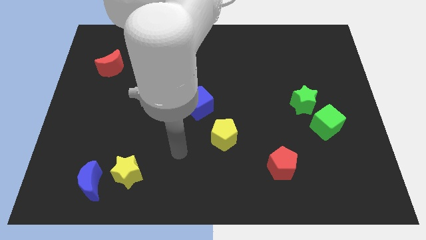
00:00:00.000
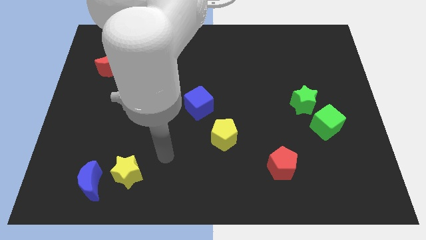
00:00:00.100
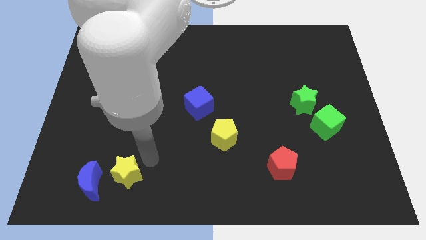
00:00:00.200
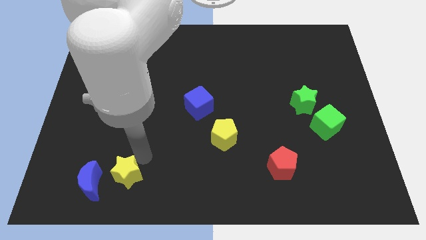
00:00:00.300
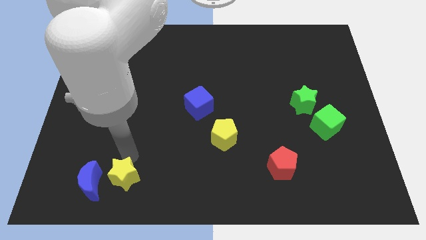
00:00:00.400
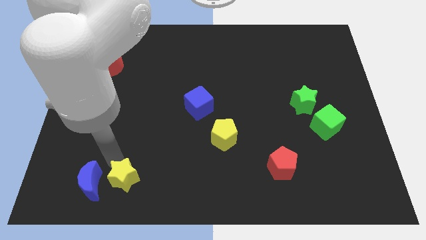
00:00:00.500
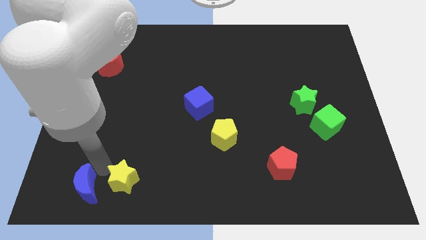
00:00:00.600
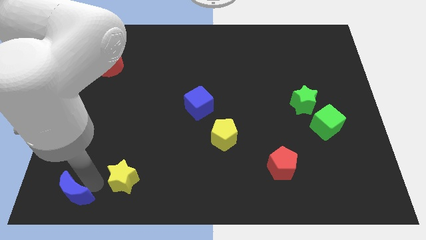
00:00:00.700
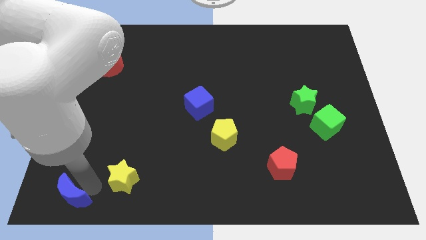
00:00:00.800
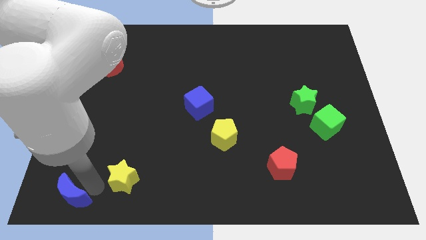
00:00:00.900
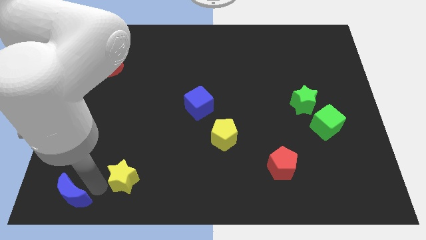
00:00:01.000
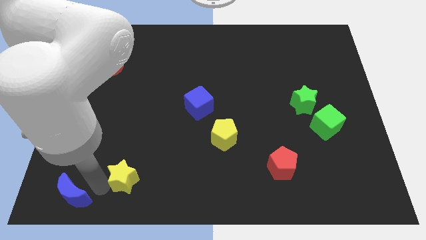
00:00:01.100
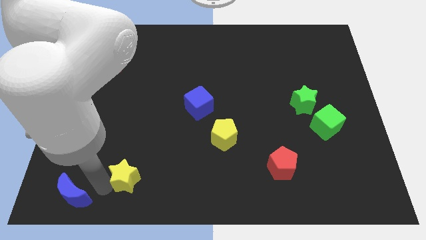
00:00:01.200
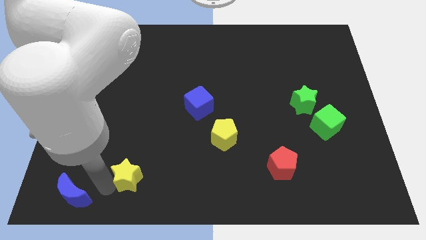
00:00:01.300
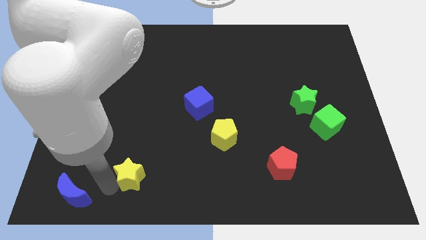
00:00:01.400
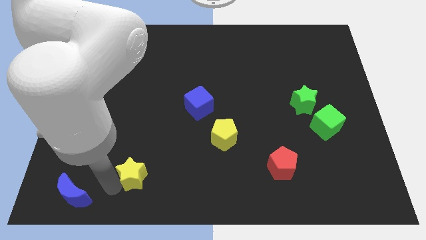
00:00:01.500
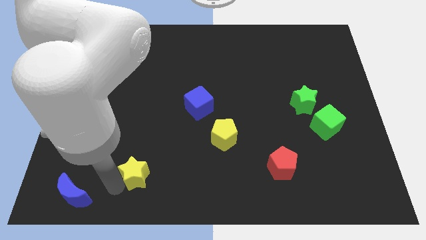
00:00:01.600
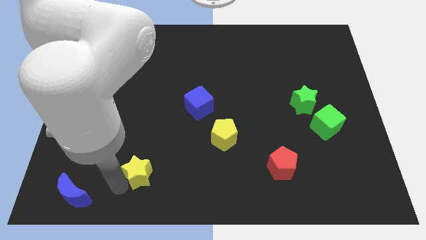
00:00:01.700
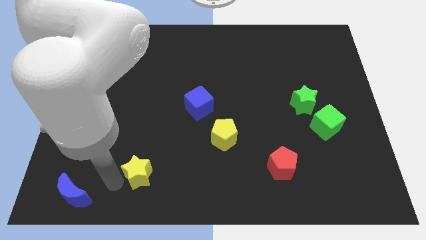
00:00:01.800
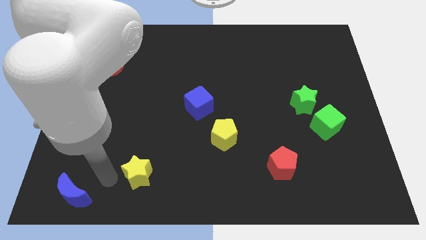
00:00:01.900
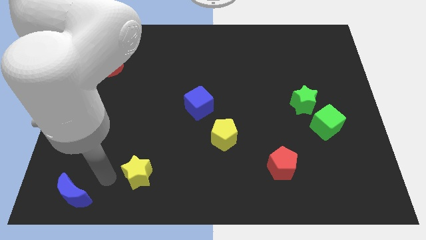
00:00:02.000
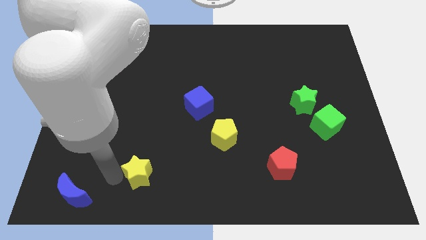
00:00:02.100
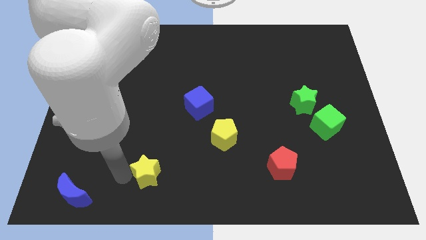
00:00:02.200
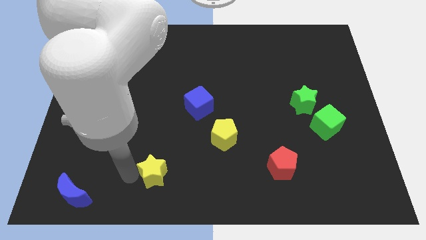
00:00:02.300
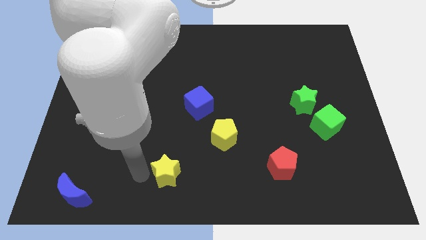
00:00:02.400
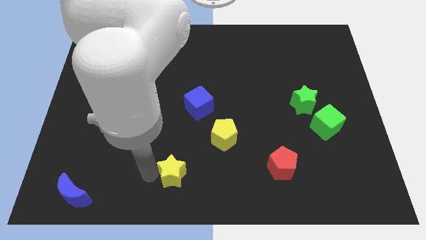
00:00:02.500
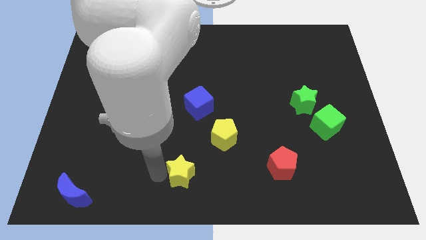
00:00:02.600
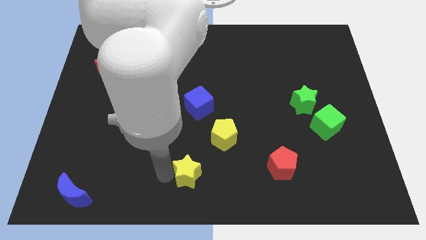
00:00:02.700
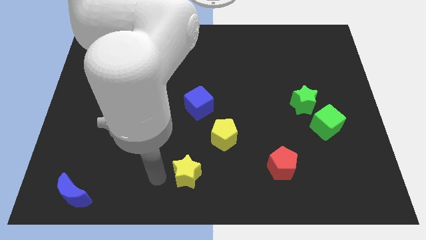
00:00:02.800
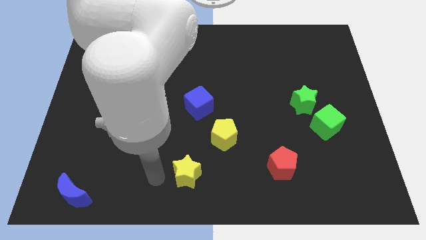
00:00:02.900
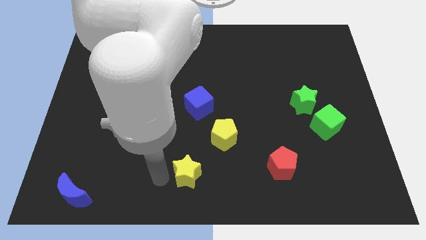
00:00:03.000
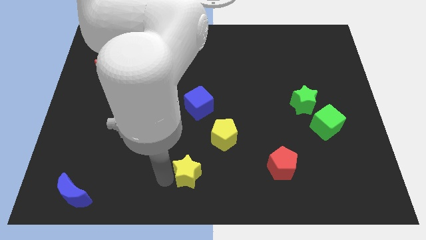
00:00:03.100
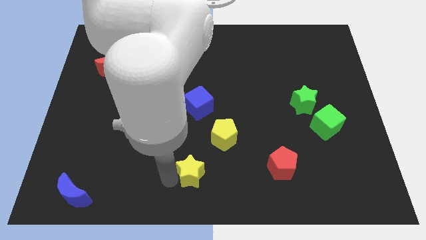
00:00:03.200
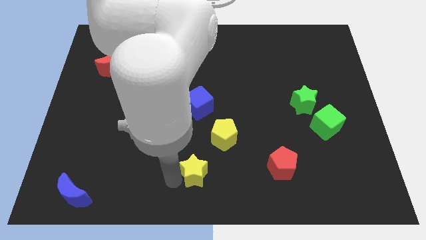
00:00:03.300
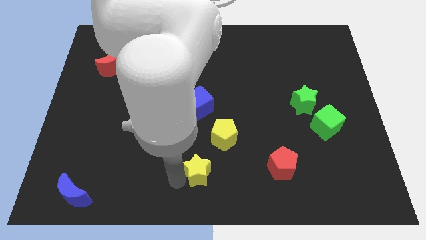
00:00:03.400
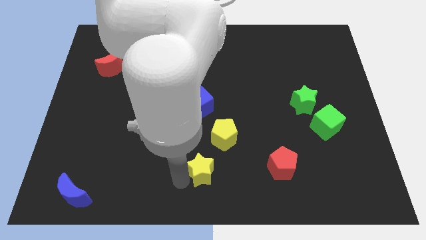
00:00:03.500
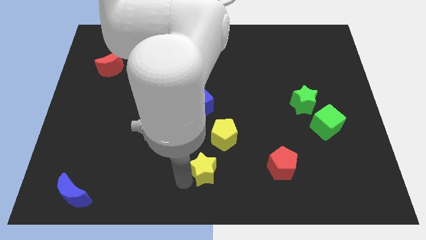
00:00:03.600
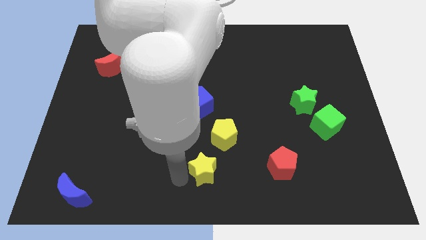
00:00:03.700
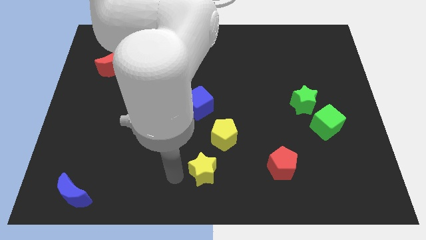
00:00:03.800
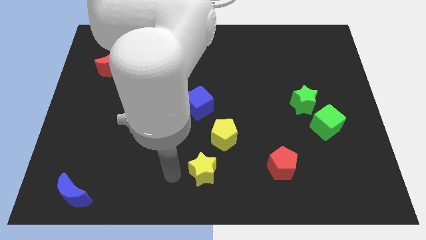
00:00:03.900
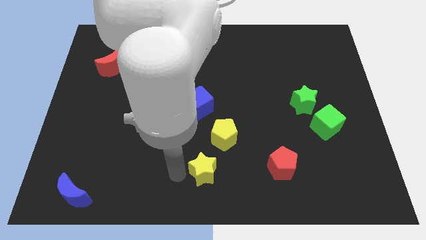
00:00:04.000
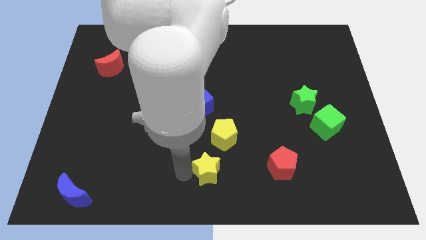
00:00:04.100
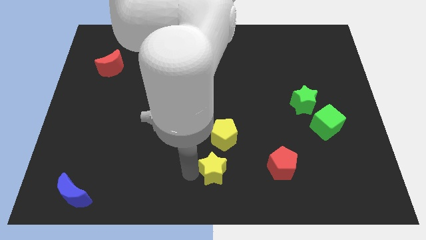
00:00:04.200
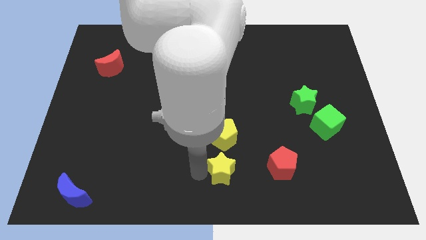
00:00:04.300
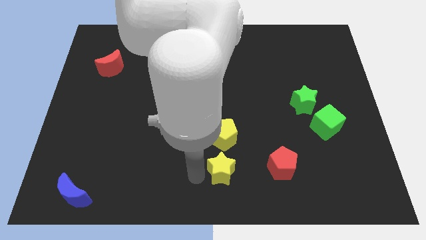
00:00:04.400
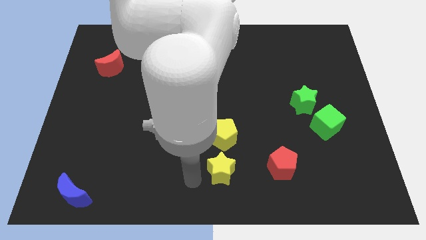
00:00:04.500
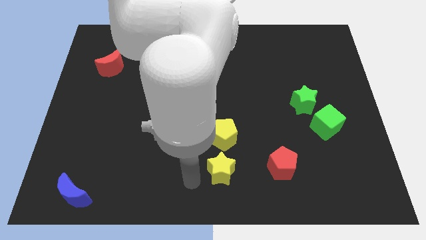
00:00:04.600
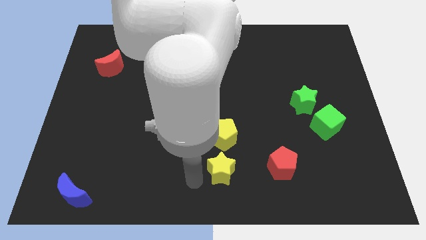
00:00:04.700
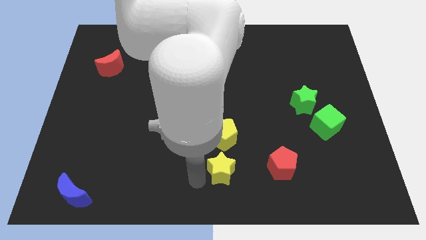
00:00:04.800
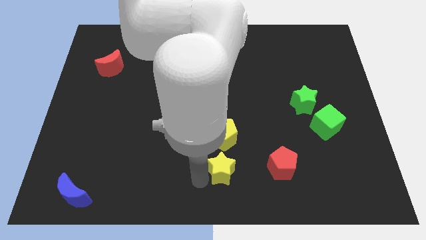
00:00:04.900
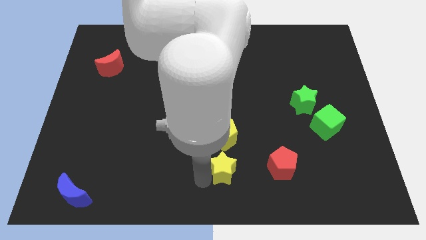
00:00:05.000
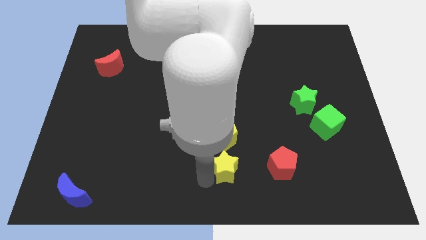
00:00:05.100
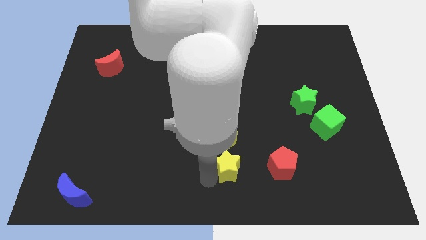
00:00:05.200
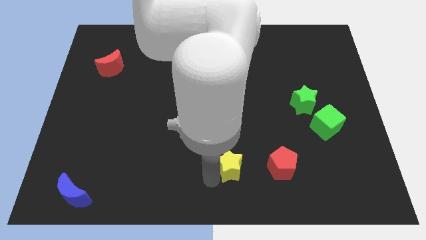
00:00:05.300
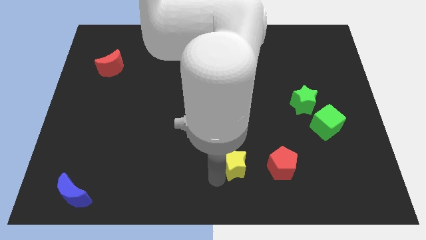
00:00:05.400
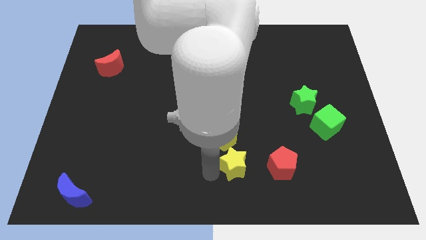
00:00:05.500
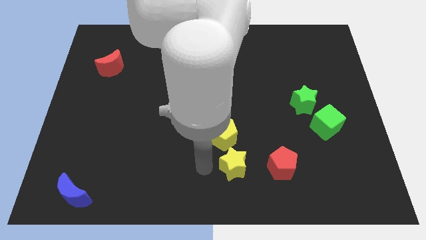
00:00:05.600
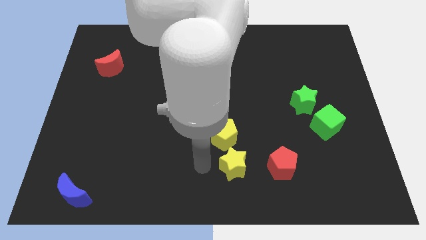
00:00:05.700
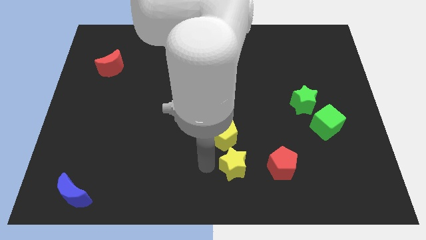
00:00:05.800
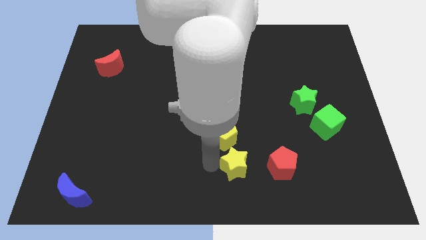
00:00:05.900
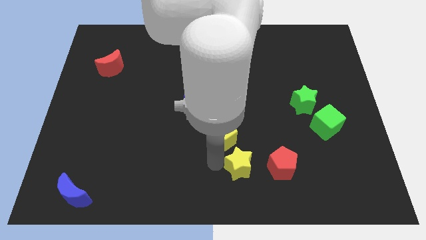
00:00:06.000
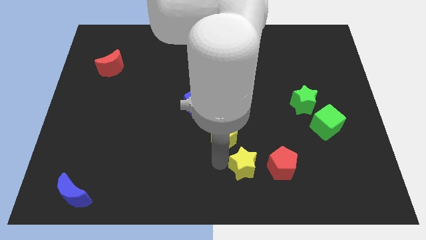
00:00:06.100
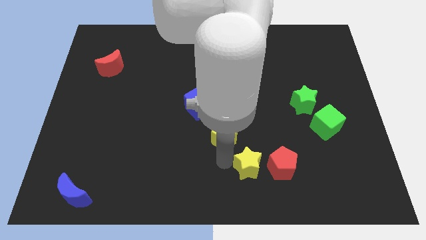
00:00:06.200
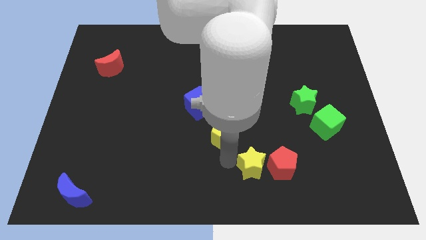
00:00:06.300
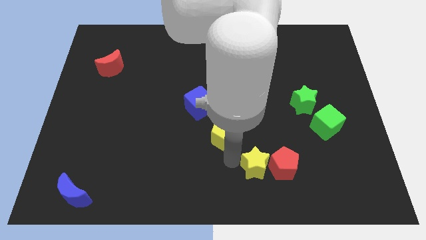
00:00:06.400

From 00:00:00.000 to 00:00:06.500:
move the yellow star next to the red pentagon

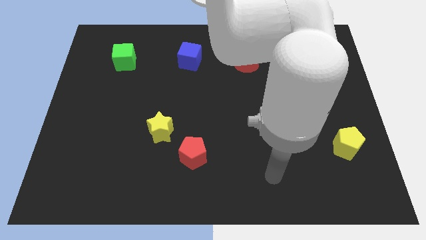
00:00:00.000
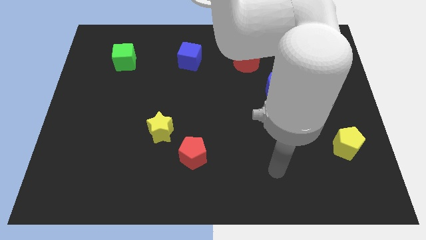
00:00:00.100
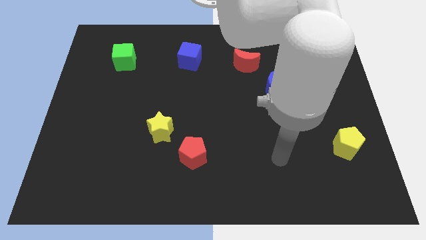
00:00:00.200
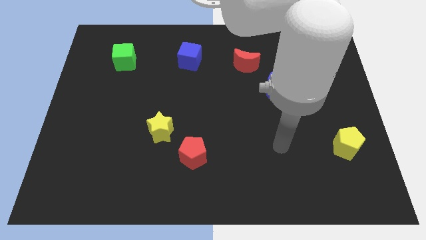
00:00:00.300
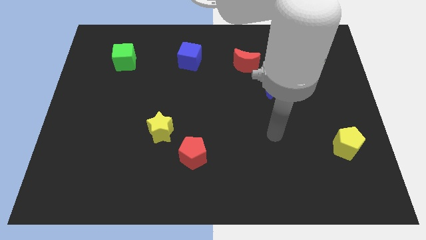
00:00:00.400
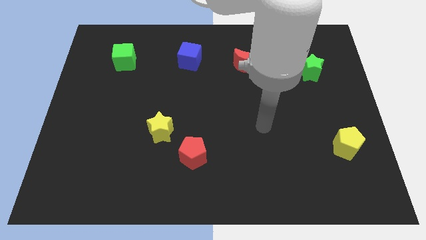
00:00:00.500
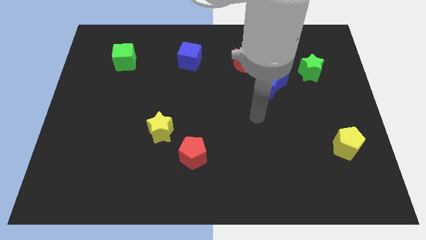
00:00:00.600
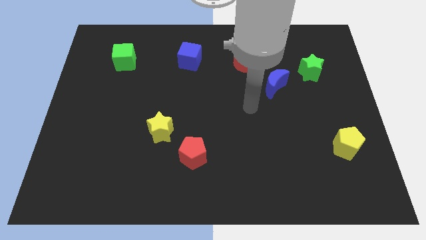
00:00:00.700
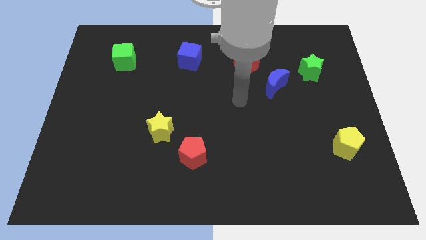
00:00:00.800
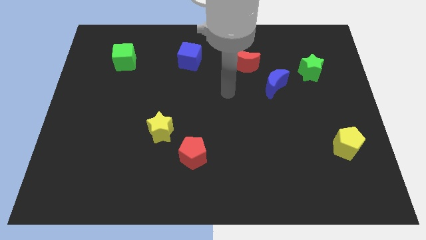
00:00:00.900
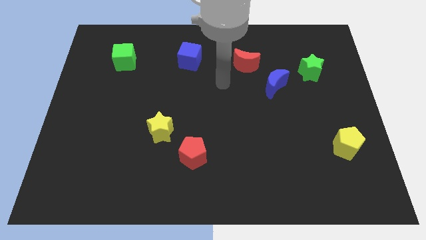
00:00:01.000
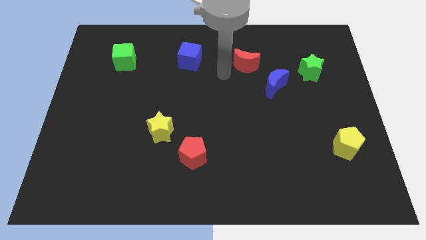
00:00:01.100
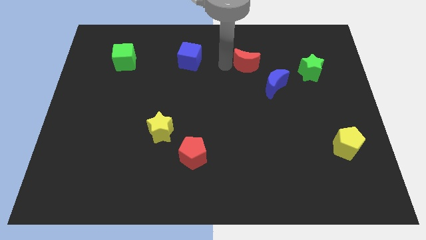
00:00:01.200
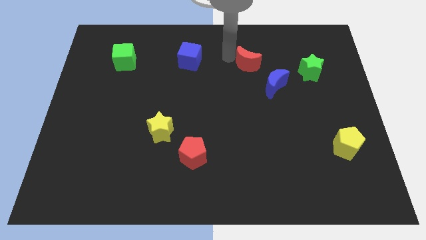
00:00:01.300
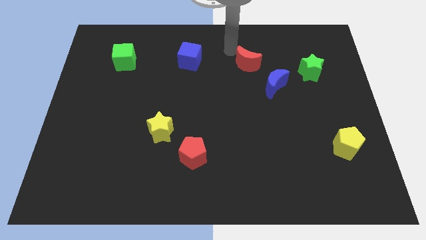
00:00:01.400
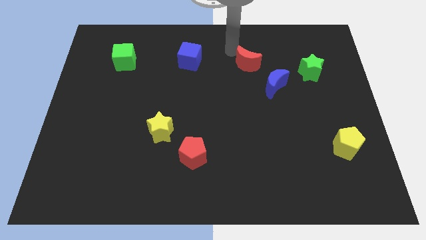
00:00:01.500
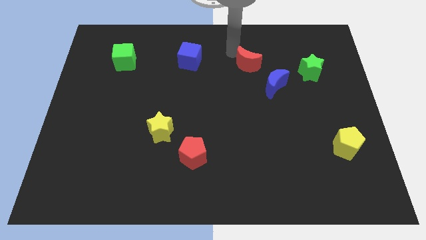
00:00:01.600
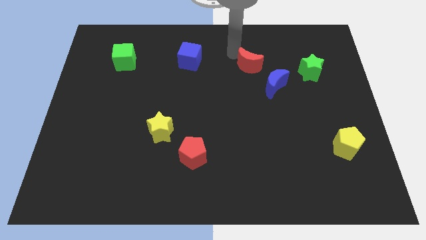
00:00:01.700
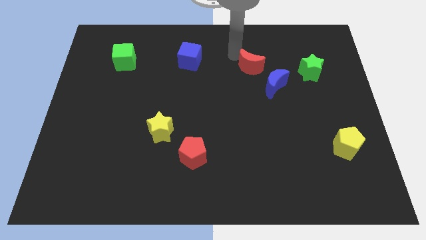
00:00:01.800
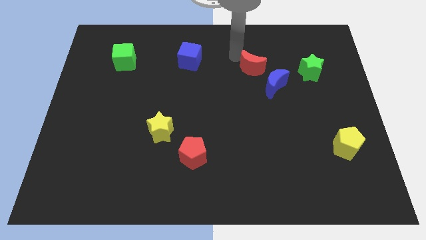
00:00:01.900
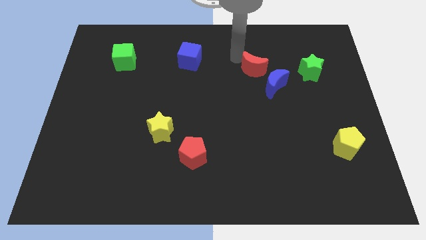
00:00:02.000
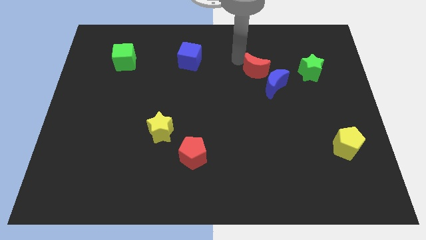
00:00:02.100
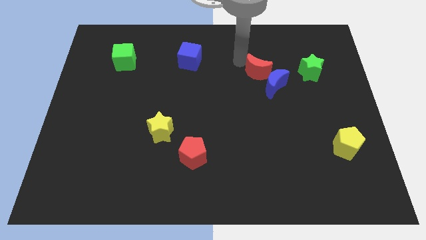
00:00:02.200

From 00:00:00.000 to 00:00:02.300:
put the red moon towards the blue moon
